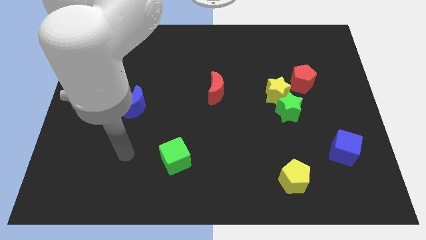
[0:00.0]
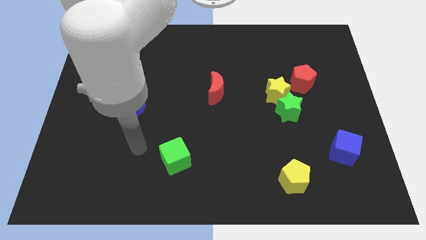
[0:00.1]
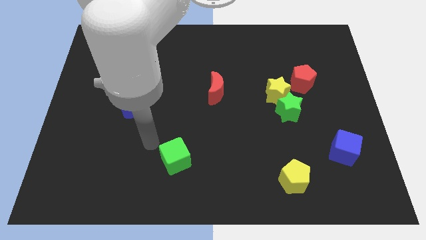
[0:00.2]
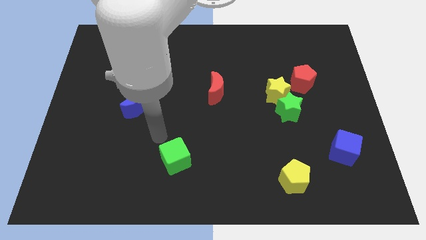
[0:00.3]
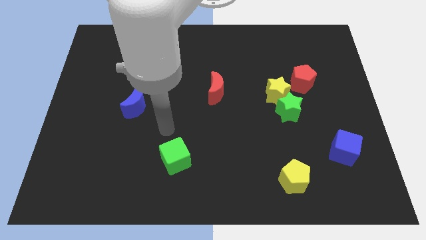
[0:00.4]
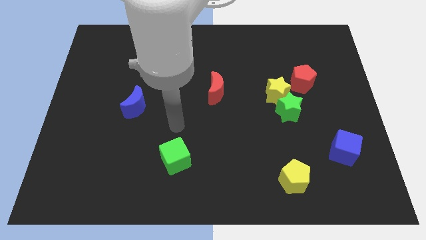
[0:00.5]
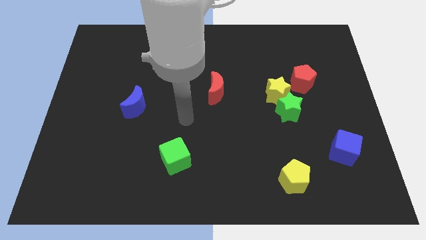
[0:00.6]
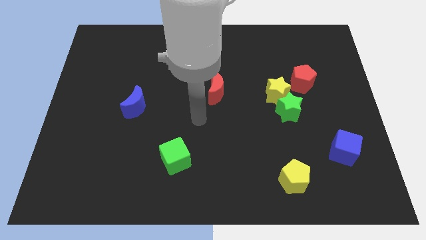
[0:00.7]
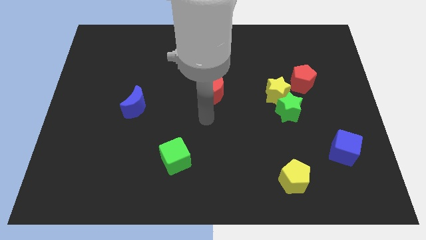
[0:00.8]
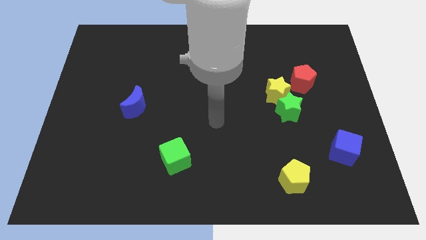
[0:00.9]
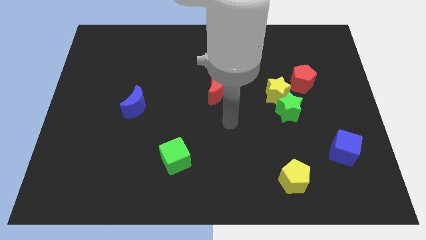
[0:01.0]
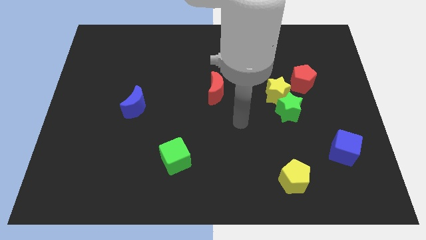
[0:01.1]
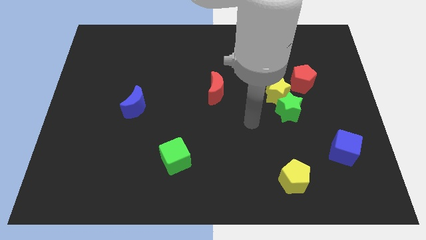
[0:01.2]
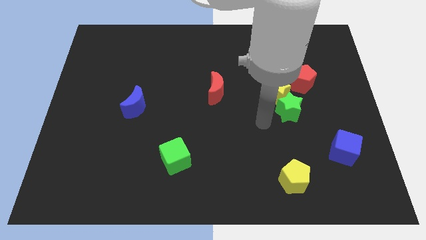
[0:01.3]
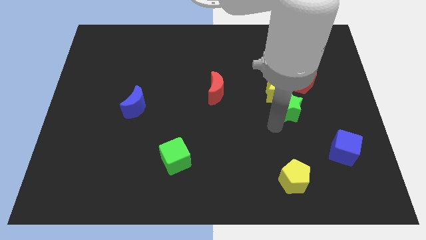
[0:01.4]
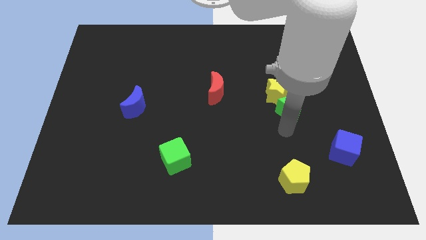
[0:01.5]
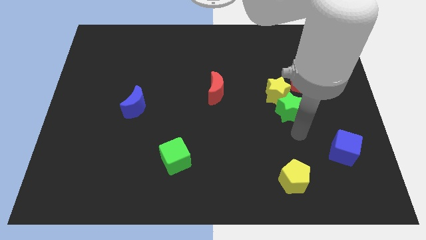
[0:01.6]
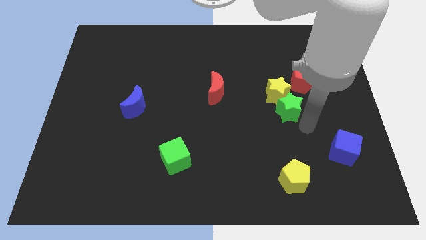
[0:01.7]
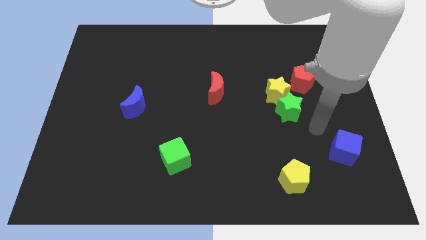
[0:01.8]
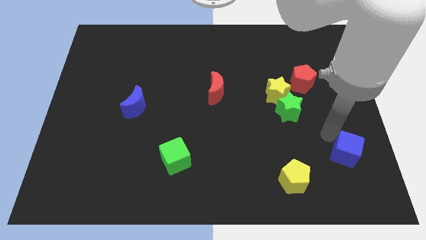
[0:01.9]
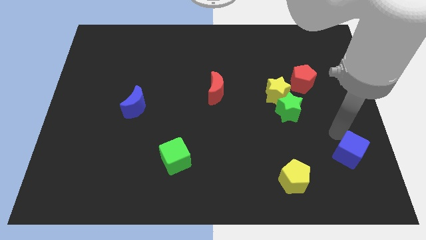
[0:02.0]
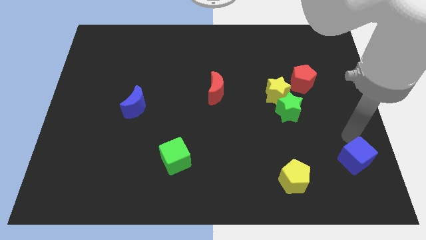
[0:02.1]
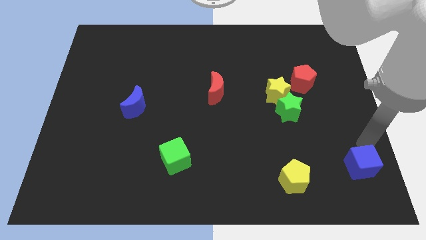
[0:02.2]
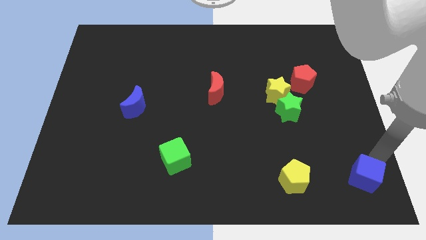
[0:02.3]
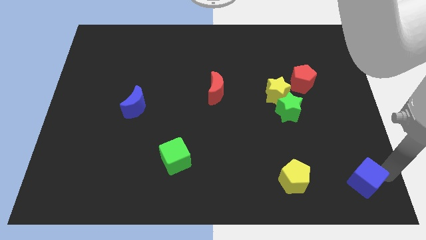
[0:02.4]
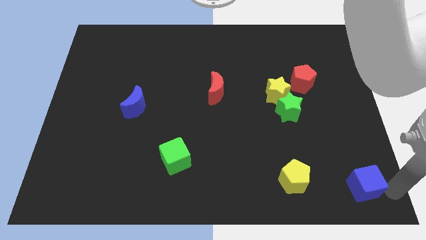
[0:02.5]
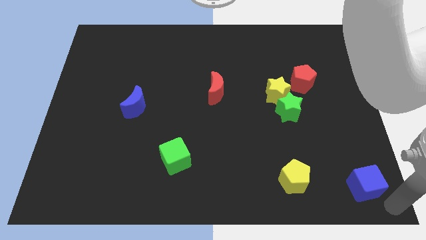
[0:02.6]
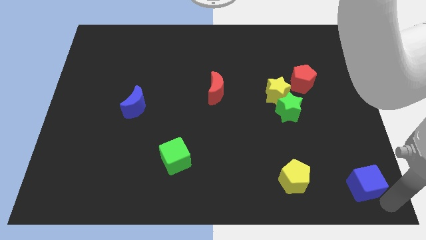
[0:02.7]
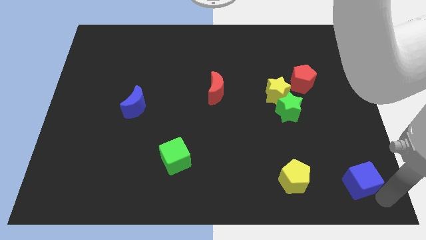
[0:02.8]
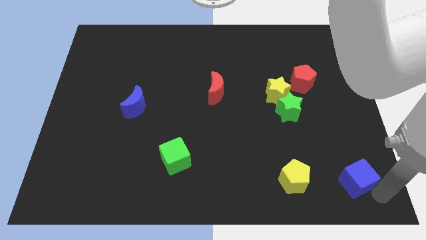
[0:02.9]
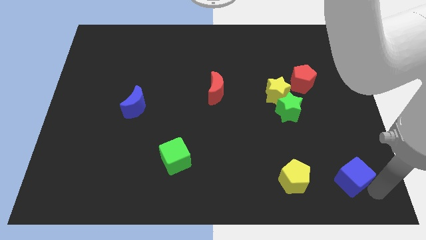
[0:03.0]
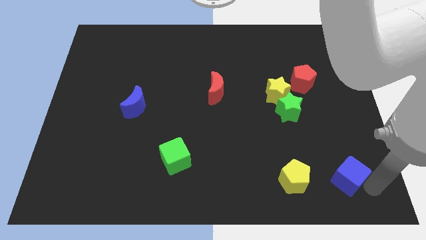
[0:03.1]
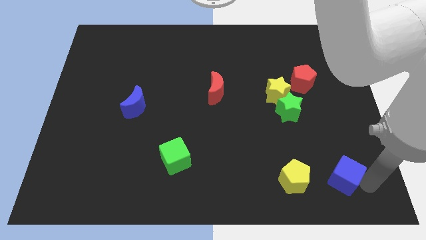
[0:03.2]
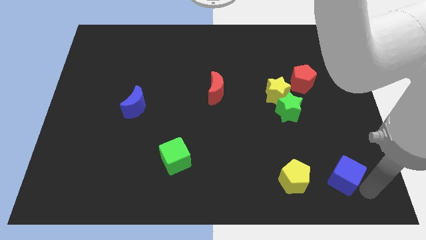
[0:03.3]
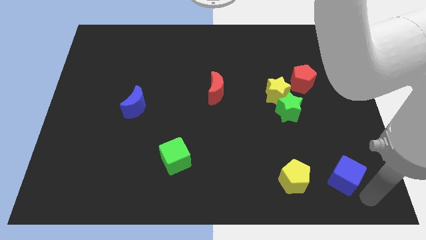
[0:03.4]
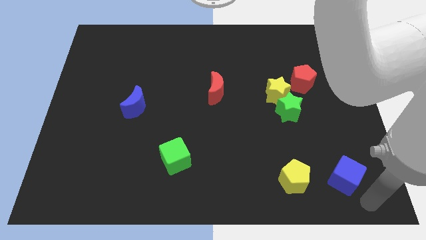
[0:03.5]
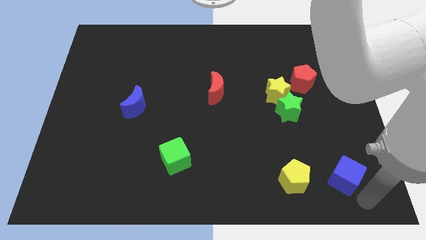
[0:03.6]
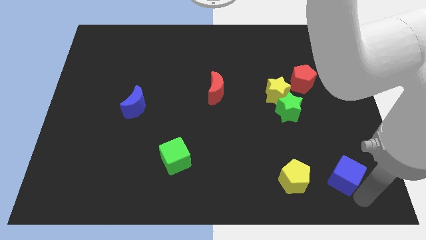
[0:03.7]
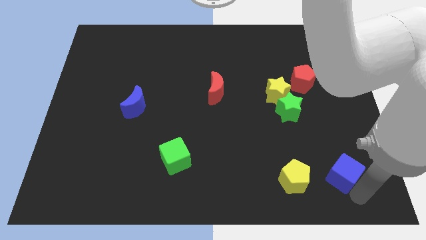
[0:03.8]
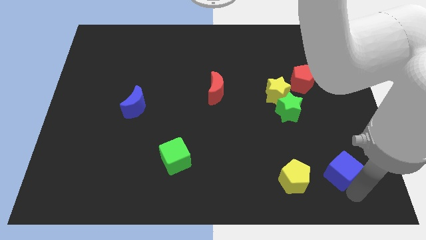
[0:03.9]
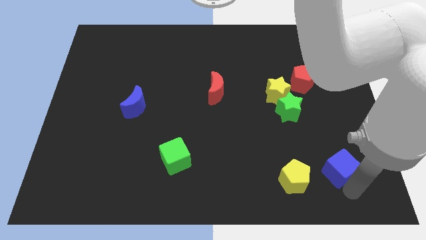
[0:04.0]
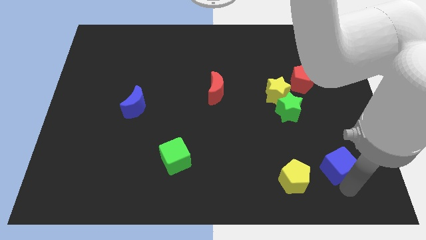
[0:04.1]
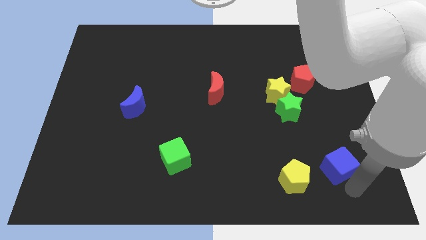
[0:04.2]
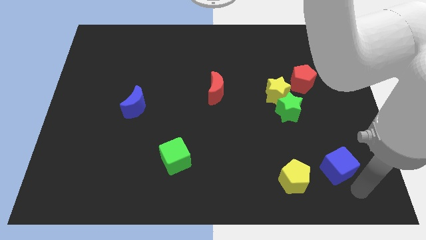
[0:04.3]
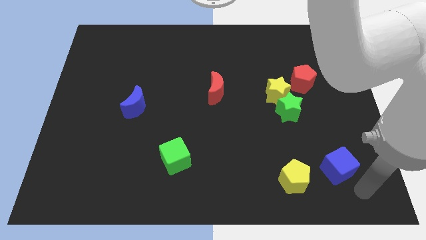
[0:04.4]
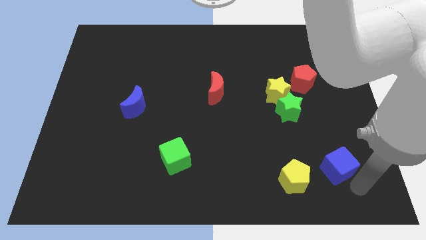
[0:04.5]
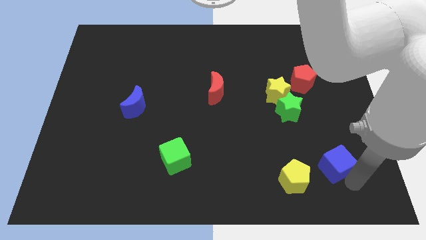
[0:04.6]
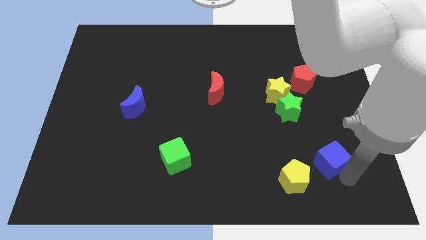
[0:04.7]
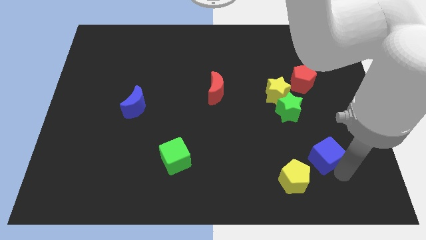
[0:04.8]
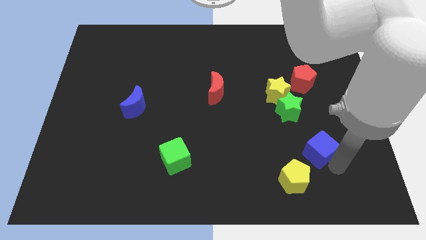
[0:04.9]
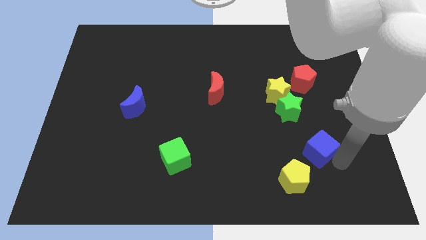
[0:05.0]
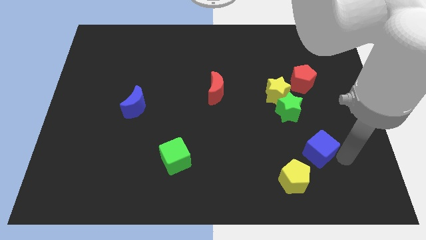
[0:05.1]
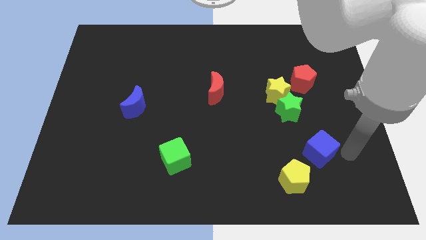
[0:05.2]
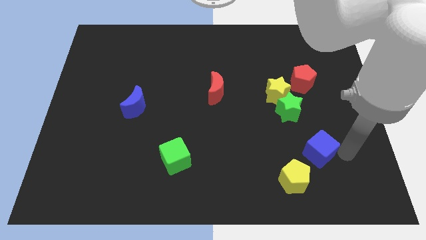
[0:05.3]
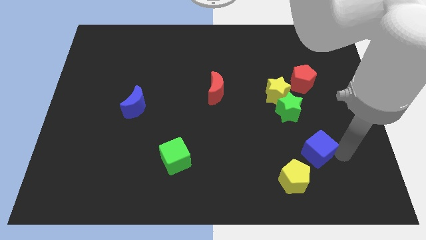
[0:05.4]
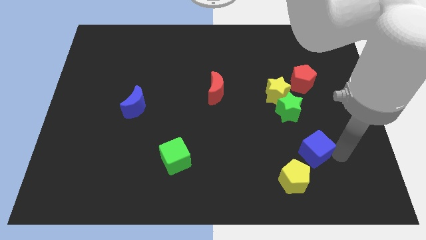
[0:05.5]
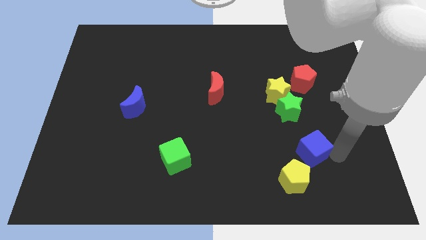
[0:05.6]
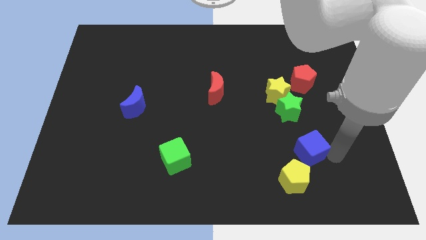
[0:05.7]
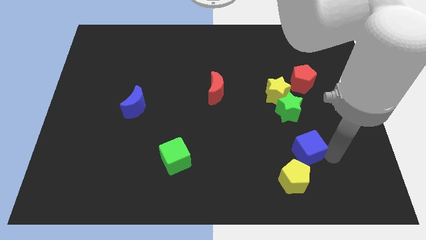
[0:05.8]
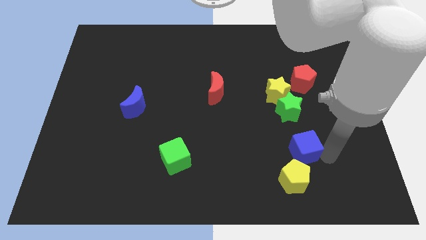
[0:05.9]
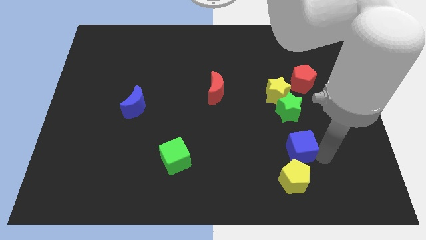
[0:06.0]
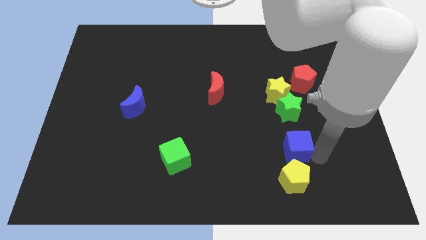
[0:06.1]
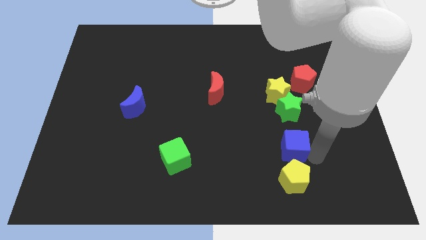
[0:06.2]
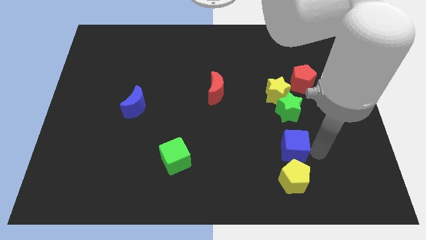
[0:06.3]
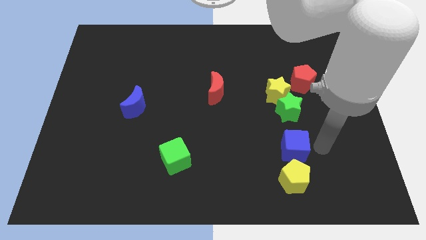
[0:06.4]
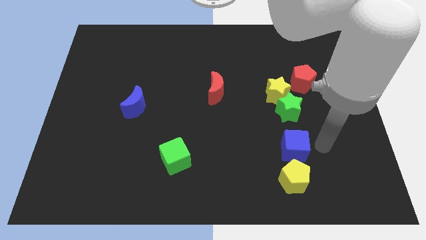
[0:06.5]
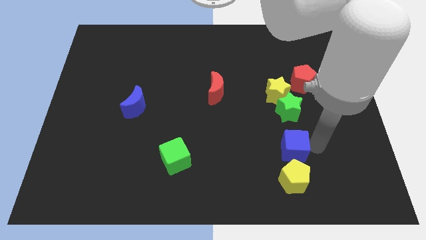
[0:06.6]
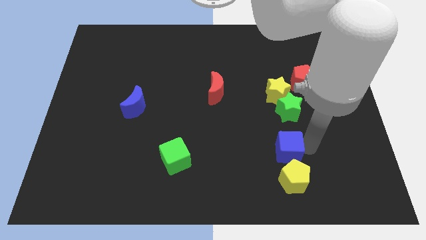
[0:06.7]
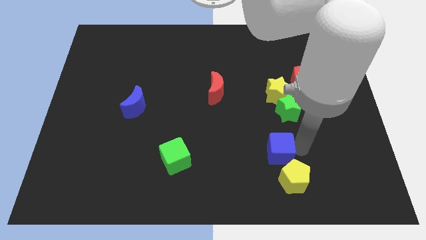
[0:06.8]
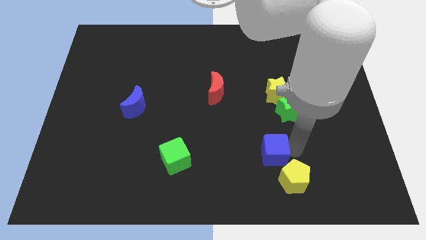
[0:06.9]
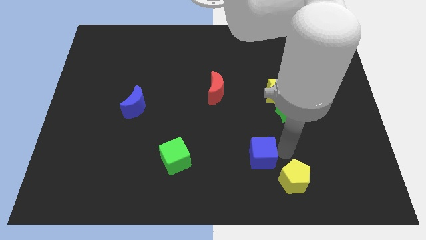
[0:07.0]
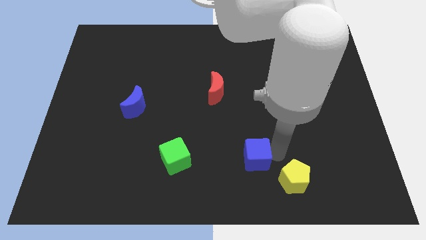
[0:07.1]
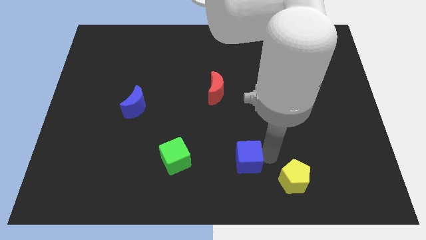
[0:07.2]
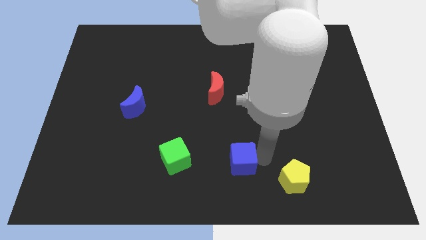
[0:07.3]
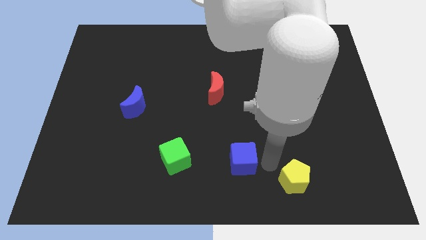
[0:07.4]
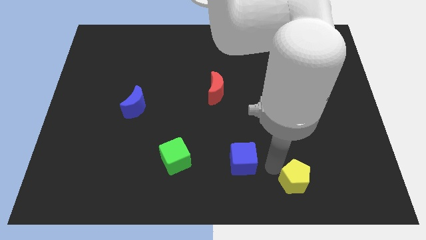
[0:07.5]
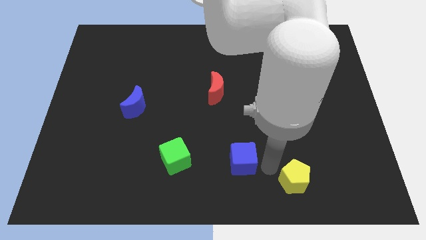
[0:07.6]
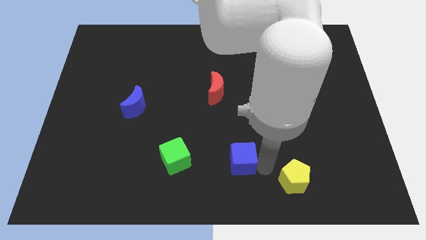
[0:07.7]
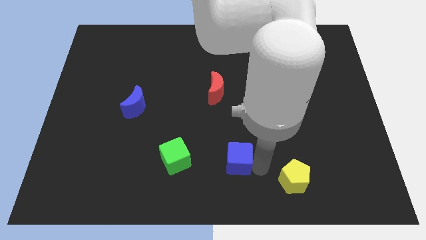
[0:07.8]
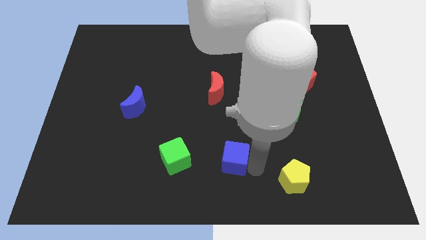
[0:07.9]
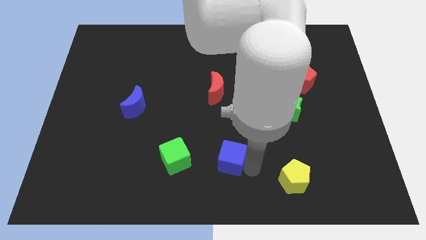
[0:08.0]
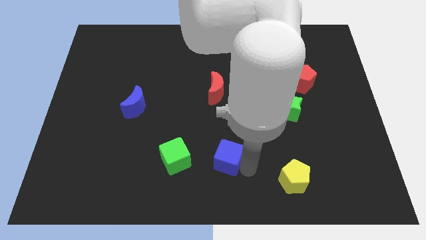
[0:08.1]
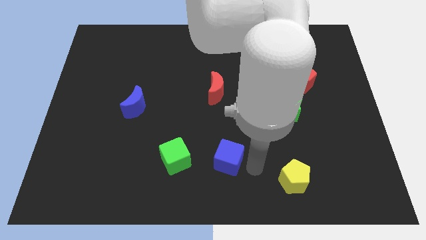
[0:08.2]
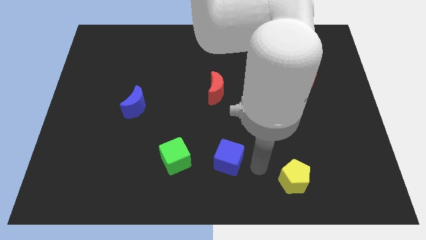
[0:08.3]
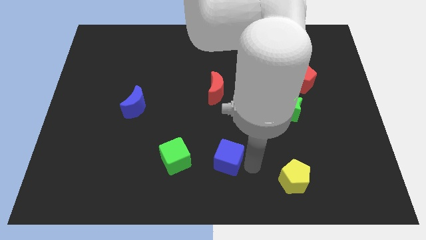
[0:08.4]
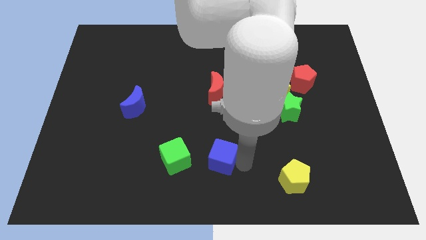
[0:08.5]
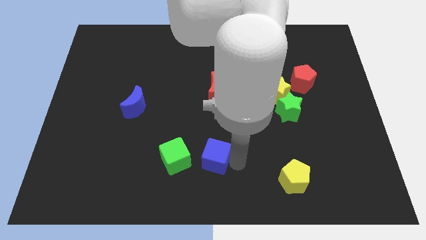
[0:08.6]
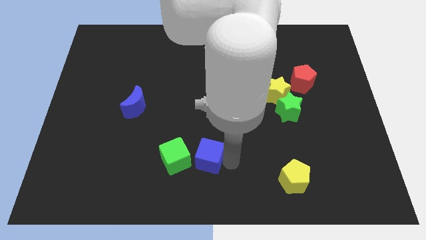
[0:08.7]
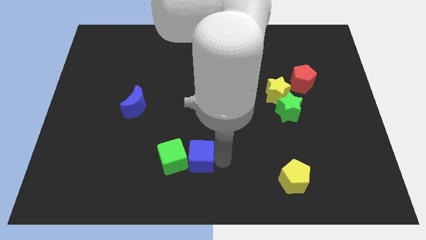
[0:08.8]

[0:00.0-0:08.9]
push the blue cube towards the green cube
